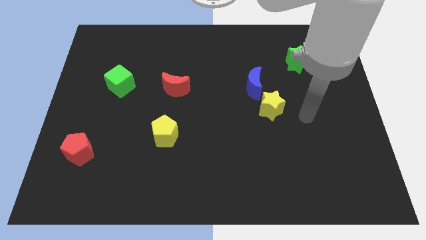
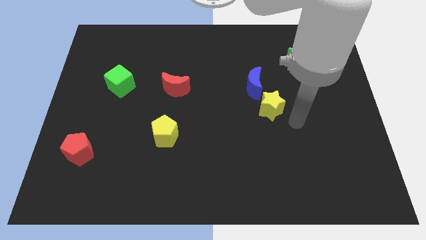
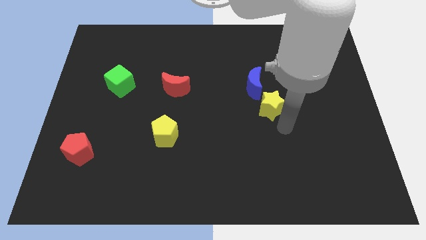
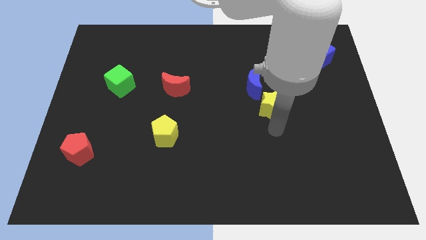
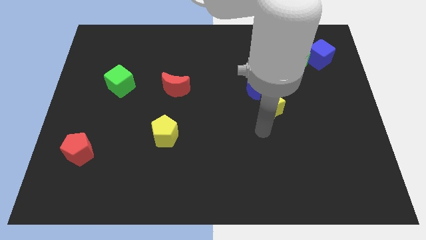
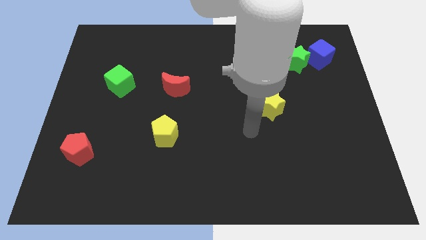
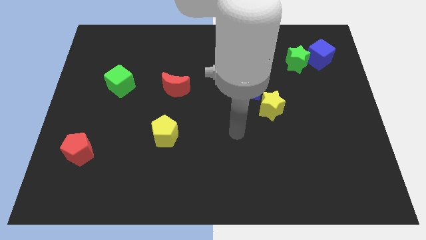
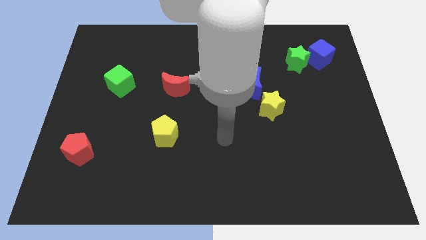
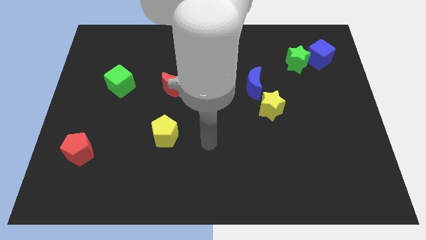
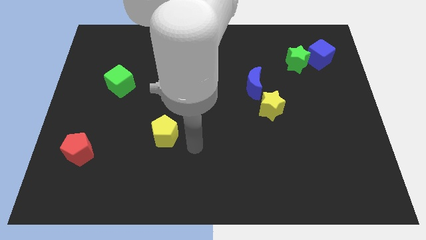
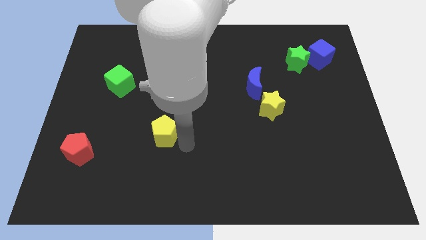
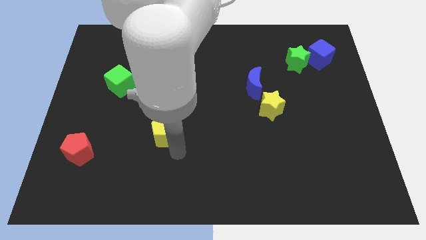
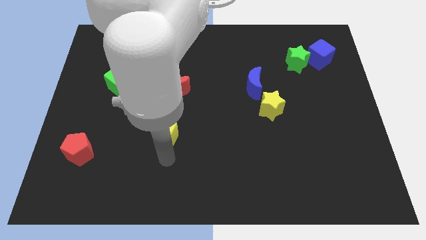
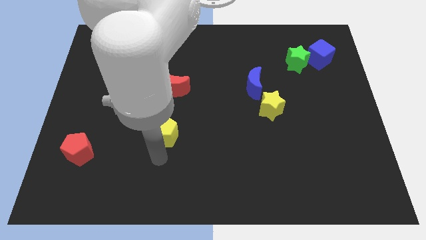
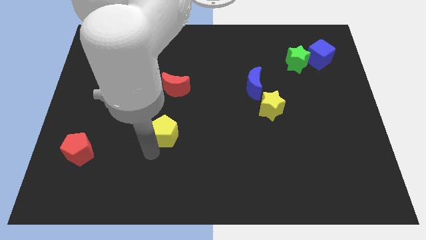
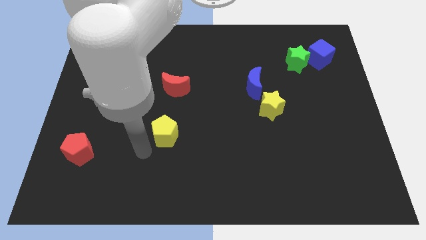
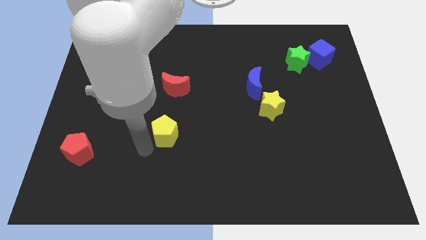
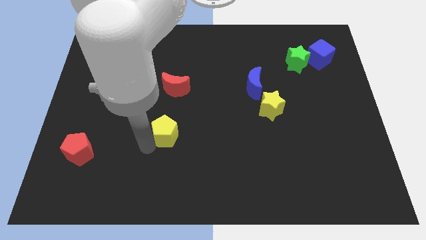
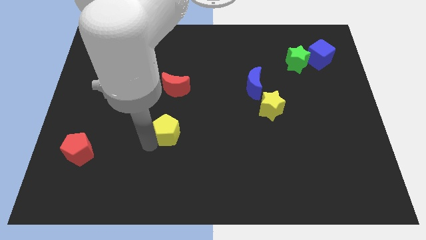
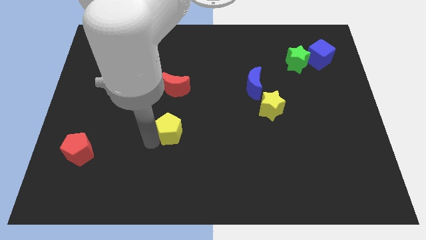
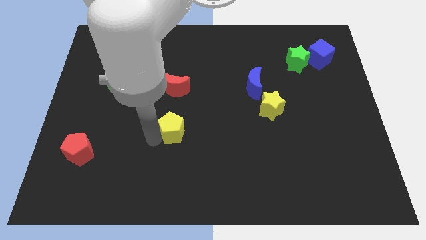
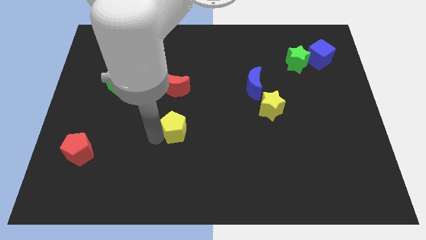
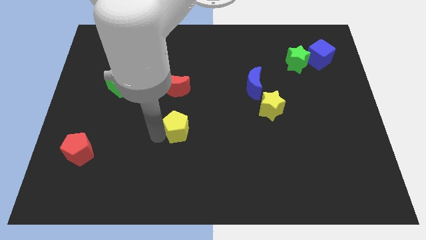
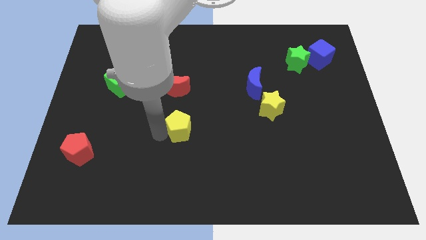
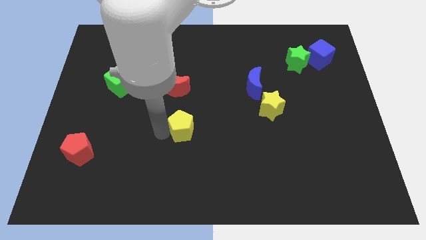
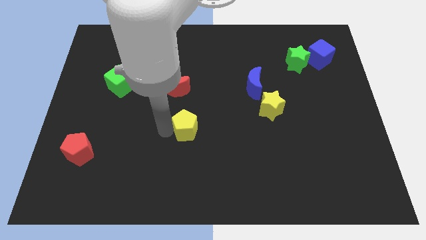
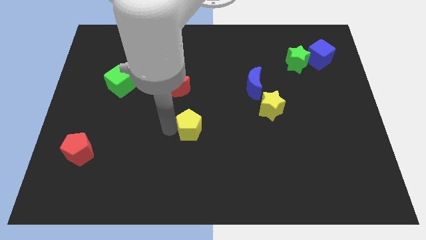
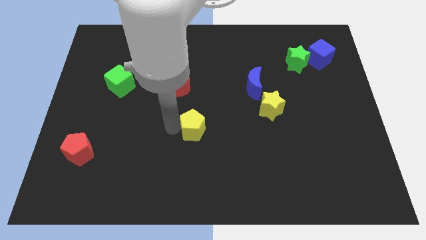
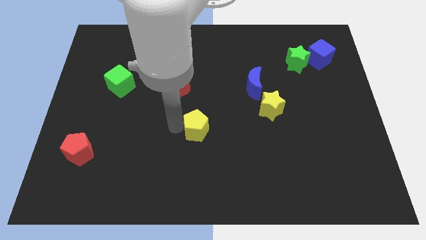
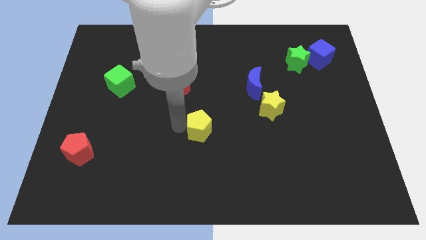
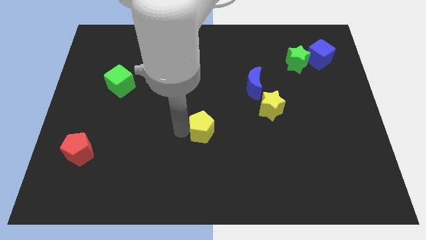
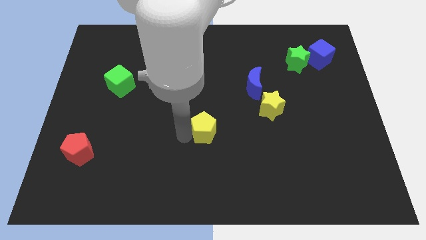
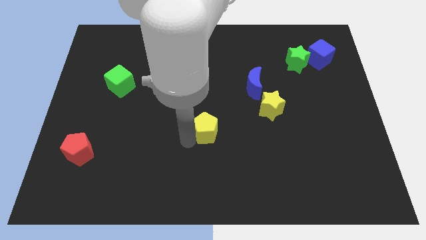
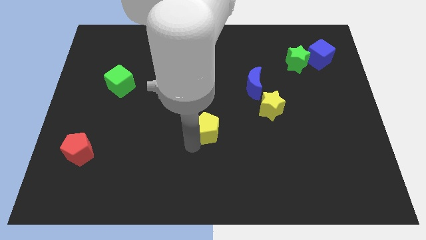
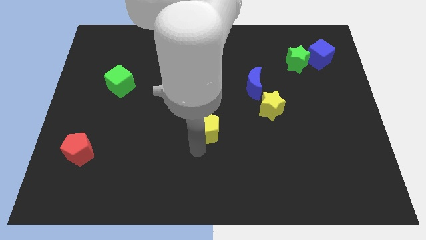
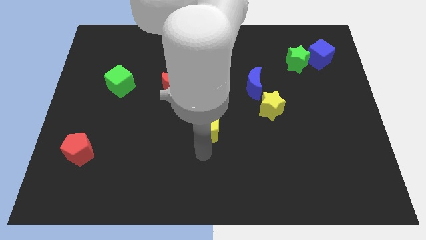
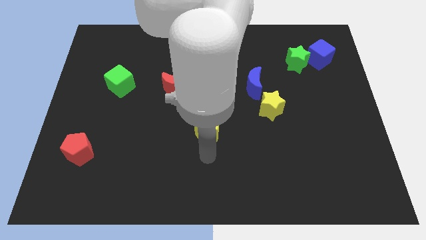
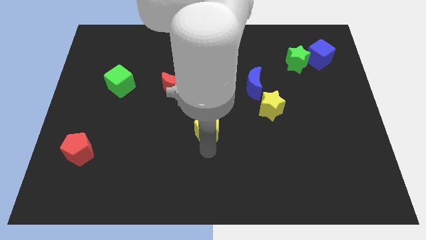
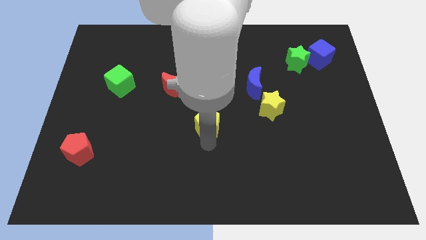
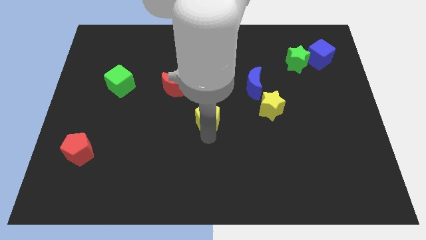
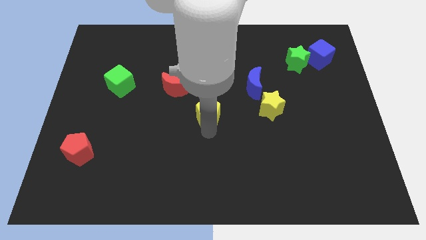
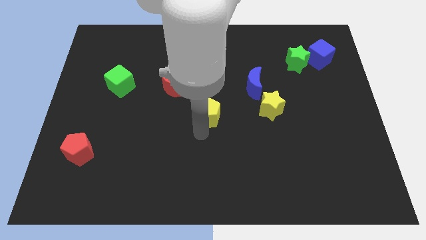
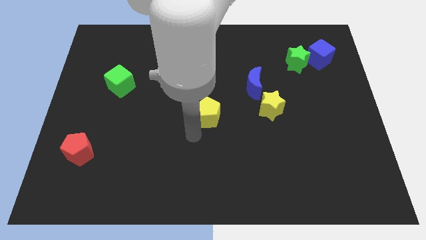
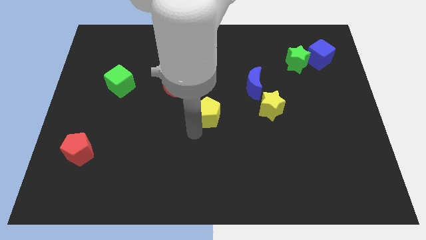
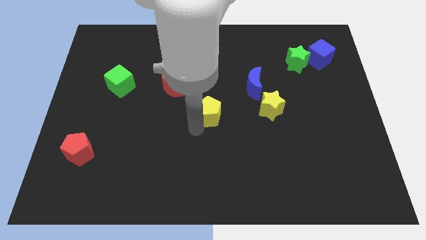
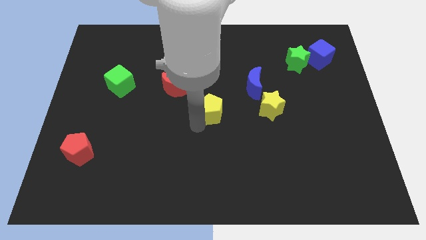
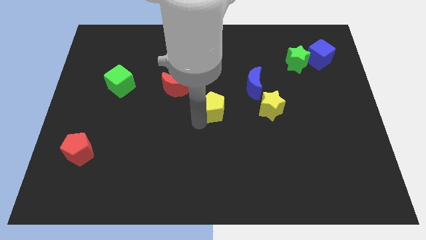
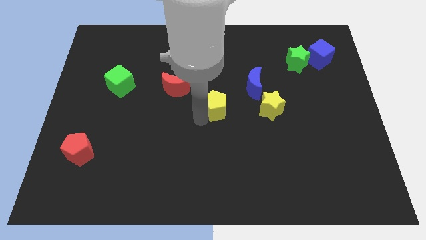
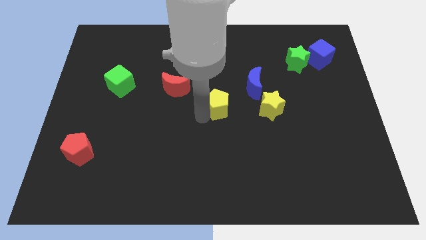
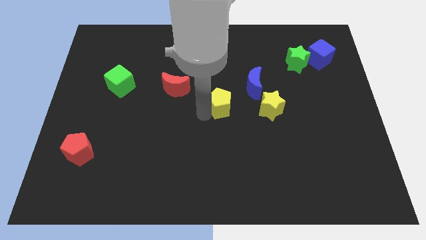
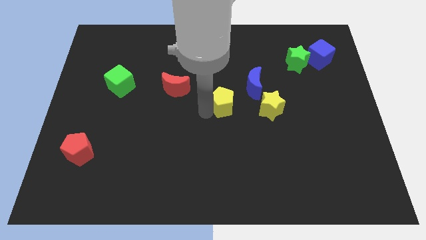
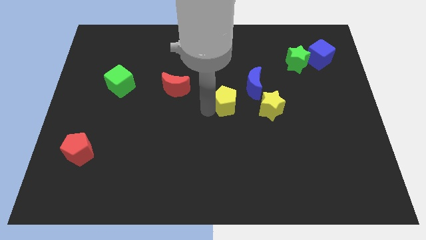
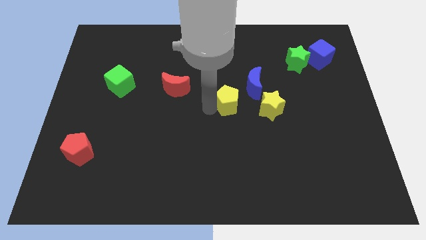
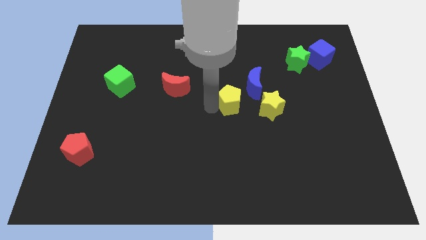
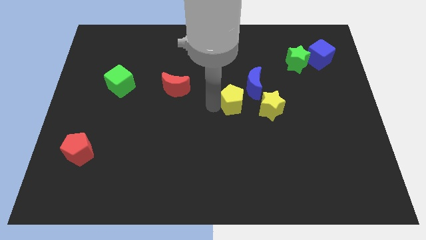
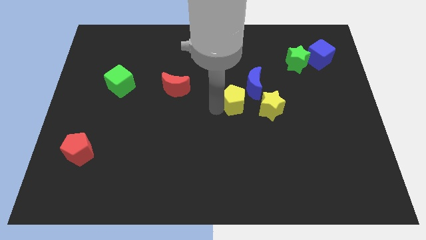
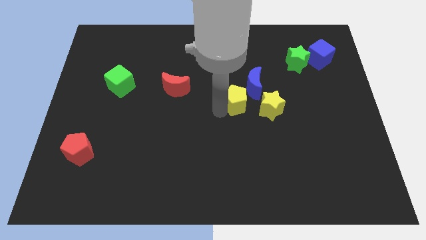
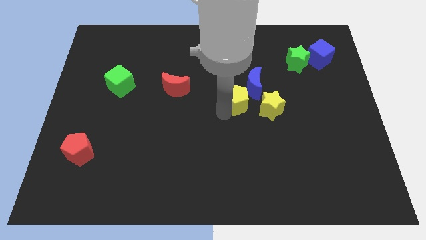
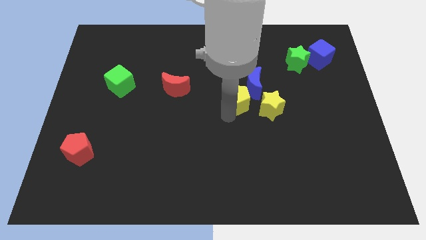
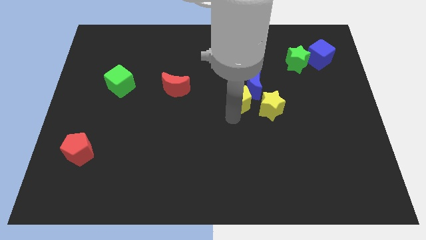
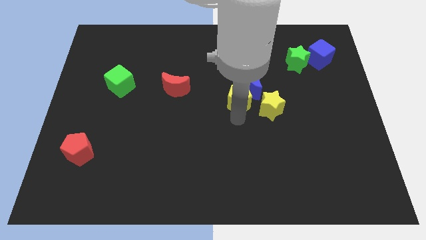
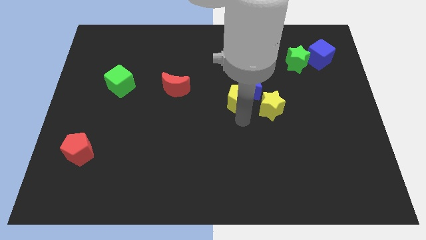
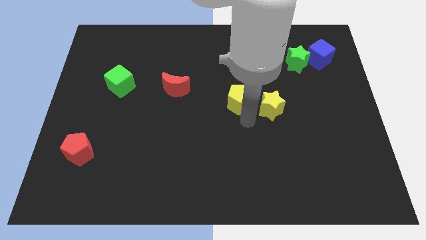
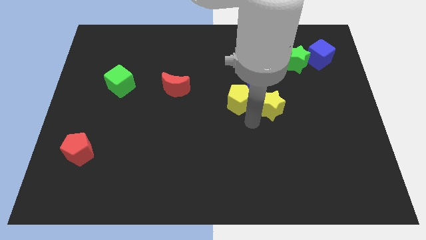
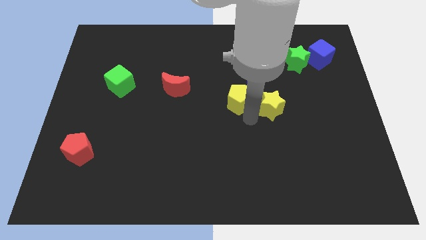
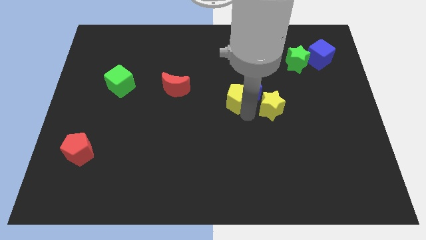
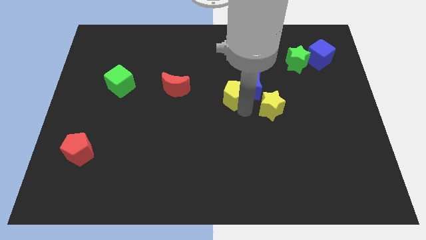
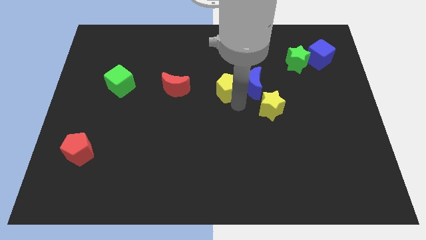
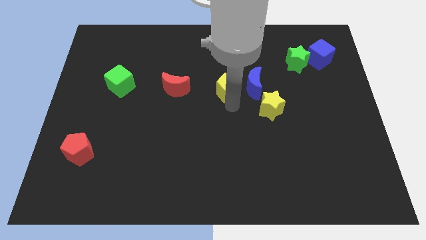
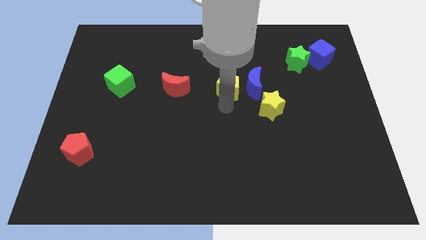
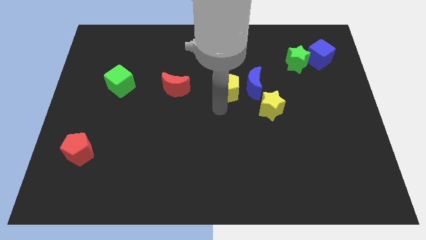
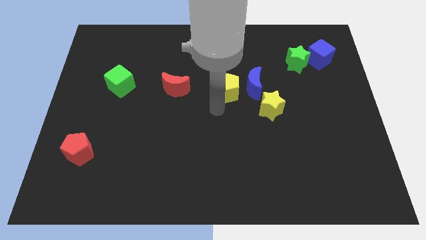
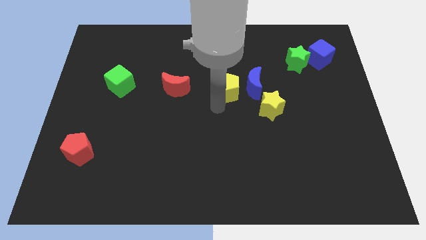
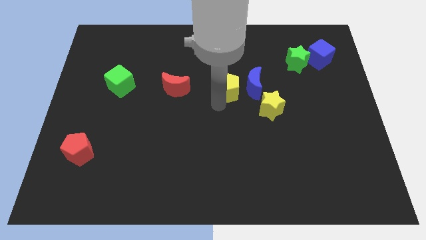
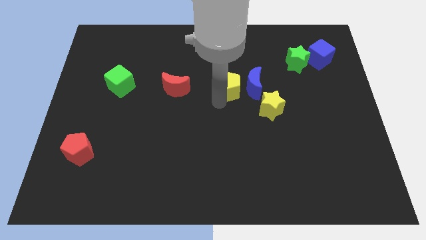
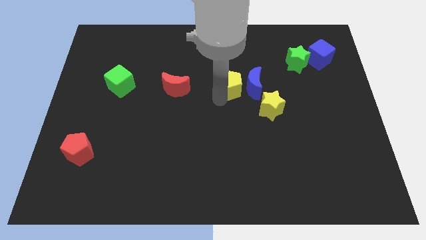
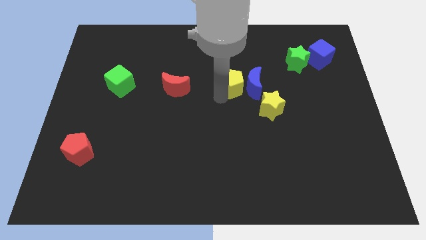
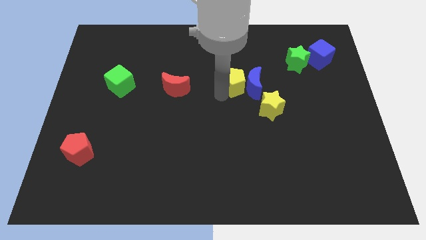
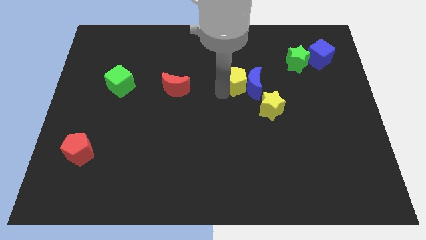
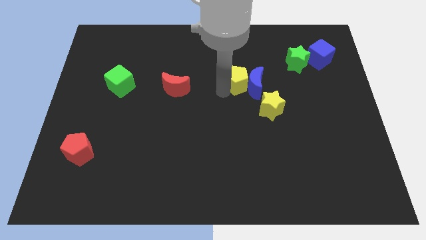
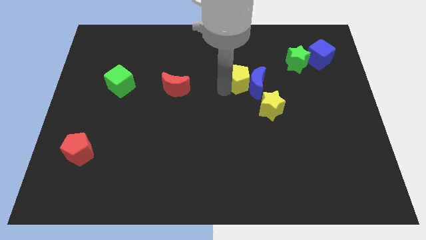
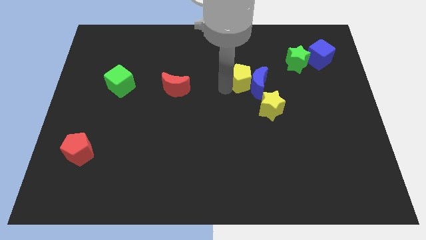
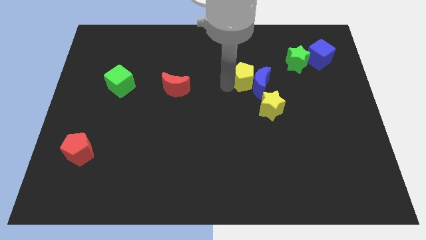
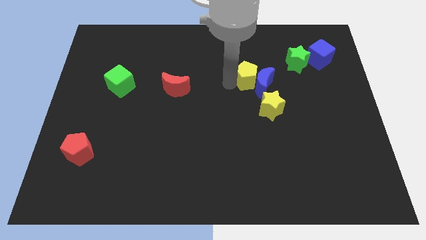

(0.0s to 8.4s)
slide the yellow pentagon above the blue moon

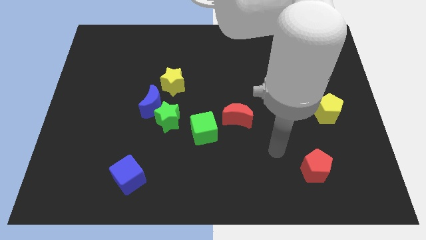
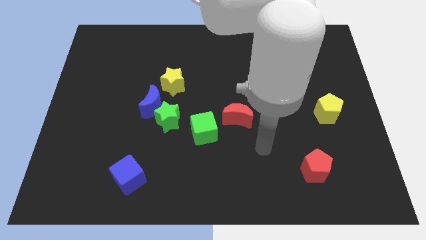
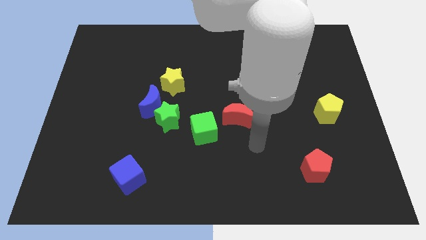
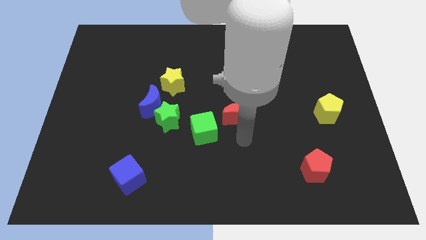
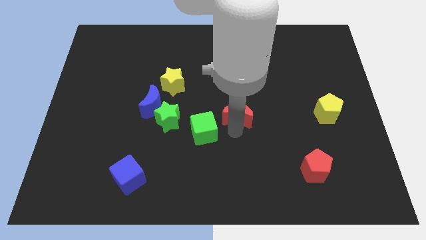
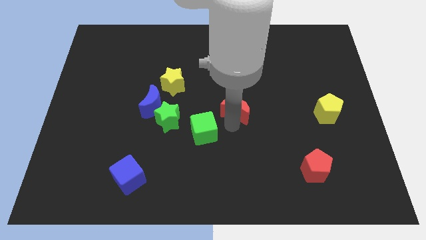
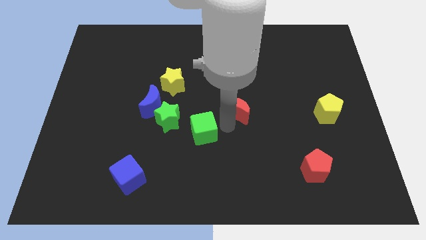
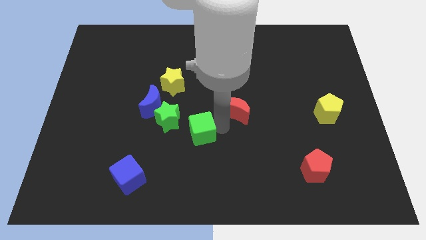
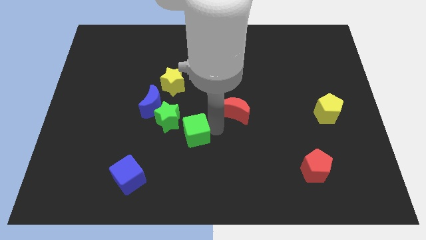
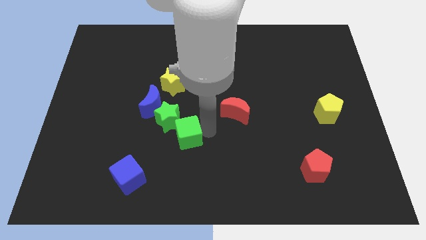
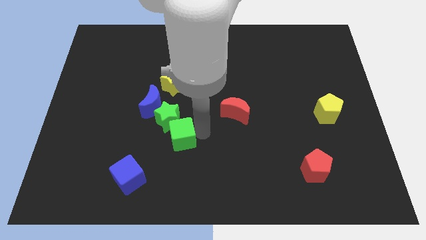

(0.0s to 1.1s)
move the green cube to the bottom of the yellow star
